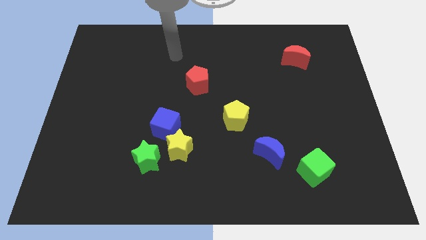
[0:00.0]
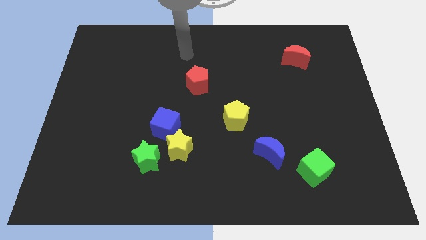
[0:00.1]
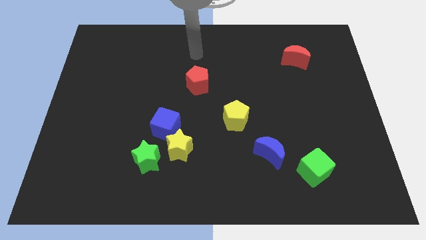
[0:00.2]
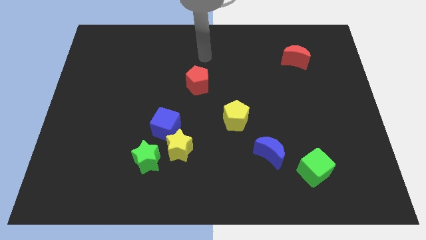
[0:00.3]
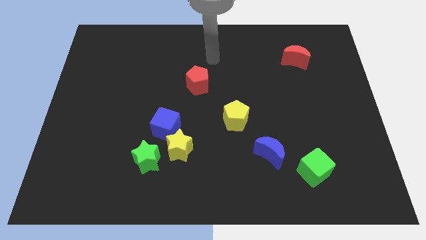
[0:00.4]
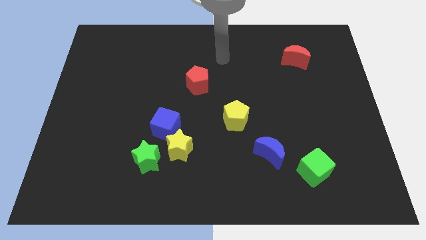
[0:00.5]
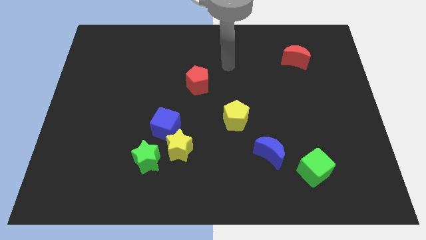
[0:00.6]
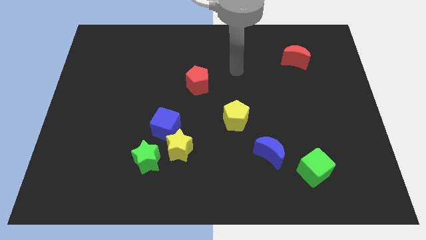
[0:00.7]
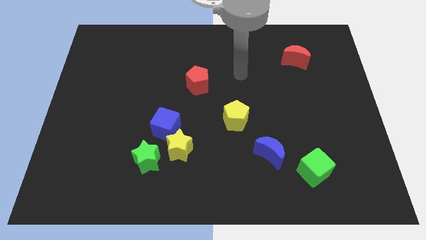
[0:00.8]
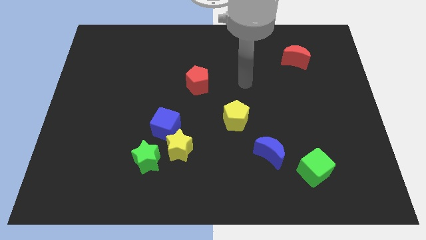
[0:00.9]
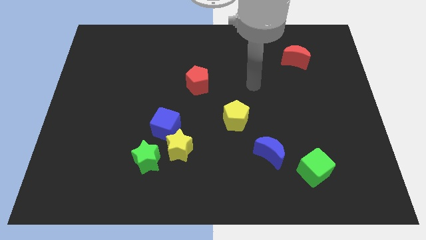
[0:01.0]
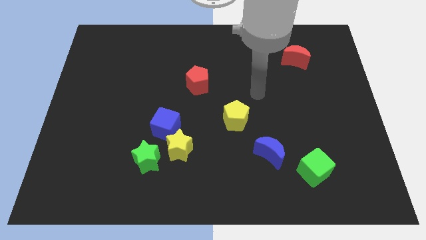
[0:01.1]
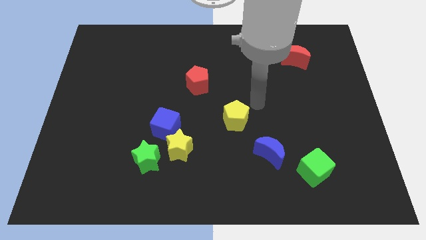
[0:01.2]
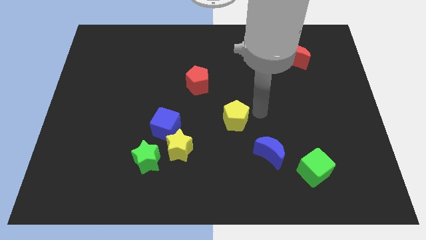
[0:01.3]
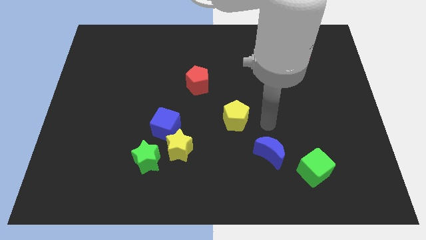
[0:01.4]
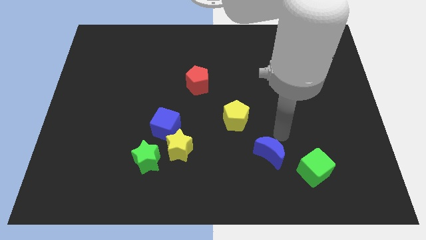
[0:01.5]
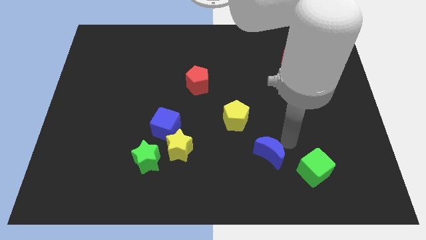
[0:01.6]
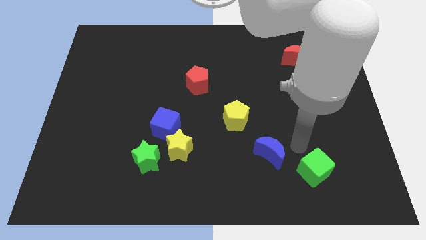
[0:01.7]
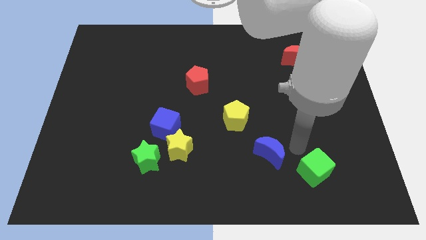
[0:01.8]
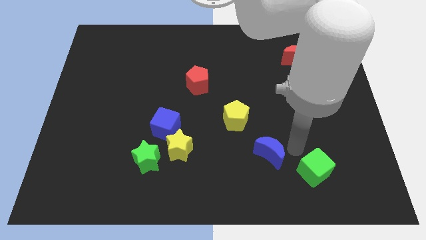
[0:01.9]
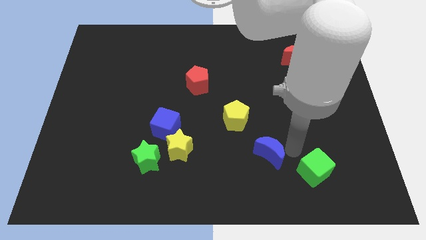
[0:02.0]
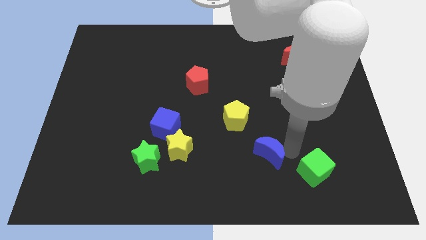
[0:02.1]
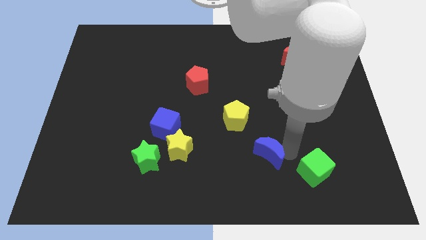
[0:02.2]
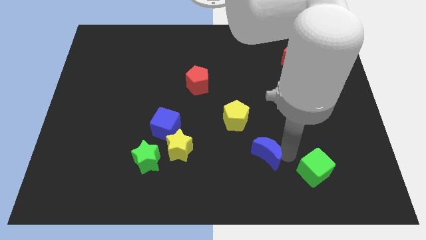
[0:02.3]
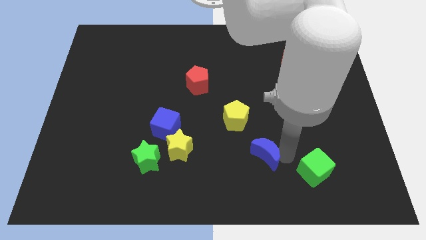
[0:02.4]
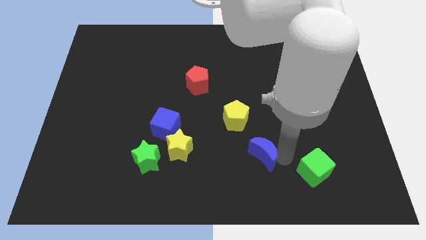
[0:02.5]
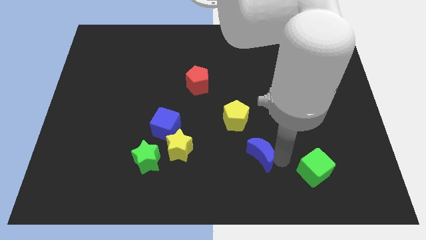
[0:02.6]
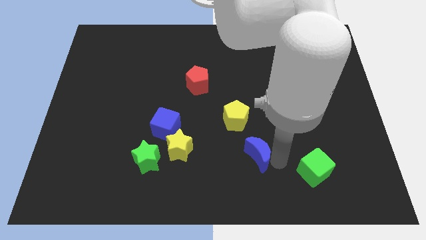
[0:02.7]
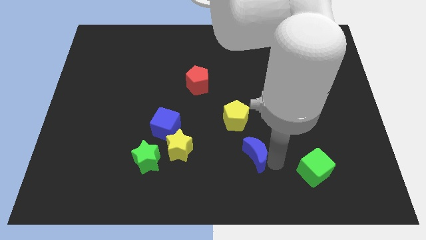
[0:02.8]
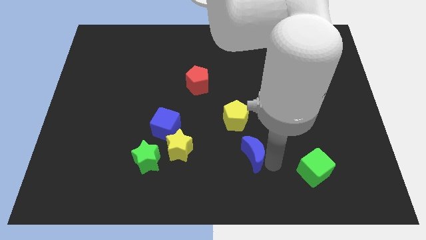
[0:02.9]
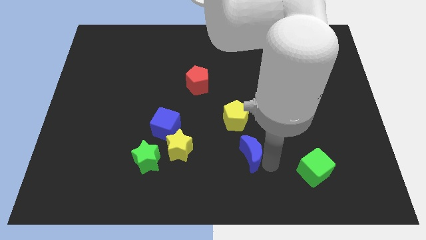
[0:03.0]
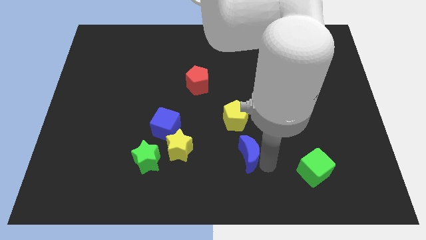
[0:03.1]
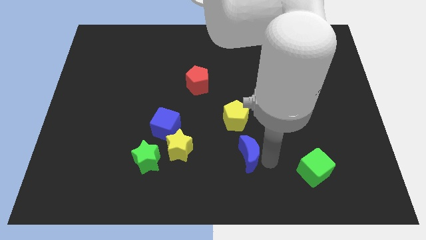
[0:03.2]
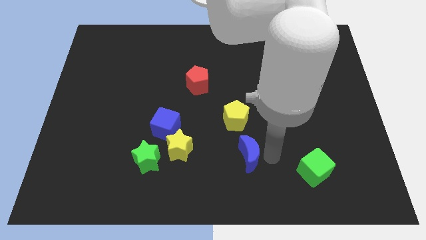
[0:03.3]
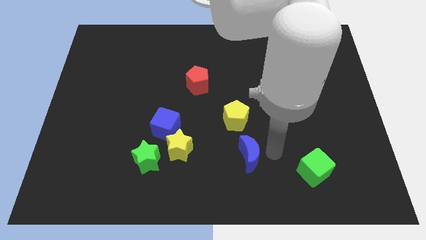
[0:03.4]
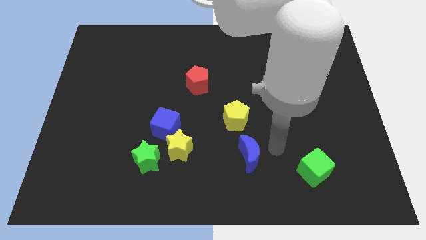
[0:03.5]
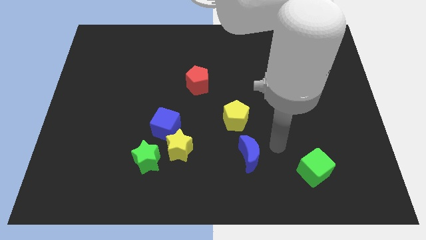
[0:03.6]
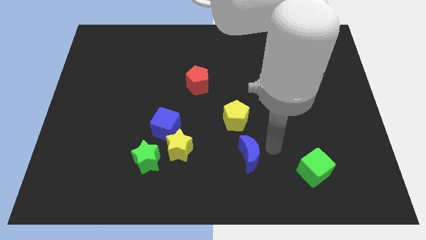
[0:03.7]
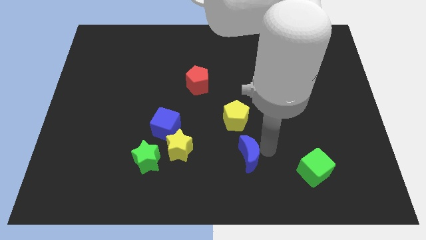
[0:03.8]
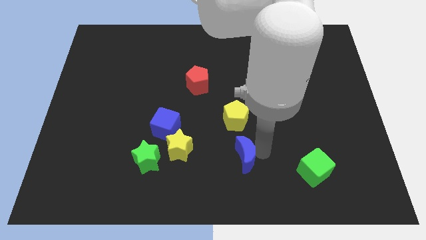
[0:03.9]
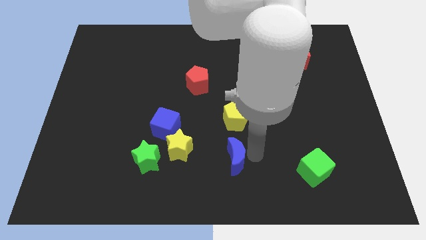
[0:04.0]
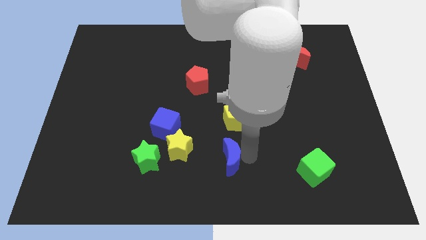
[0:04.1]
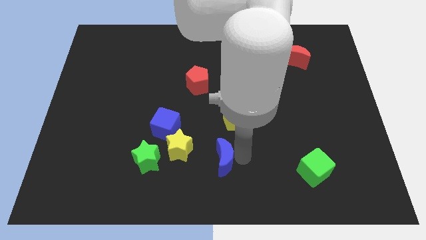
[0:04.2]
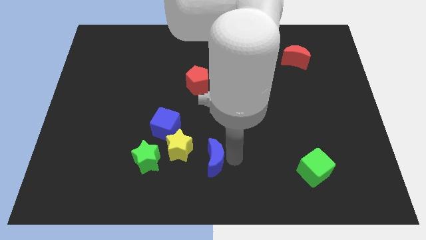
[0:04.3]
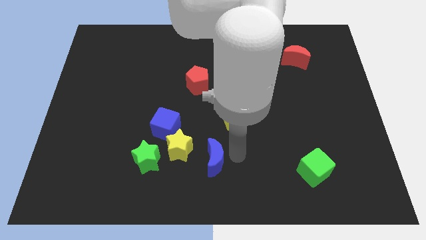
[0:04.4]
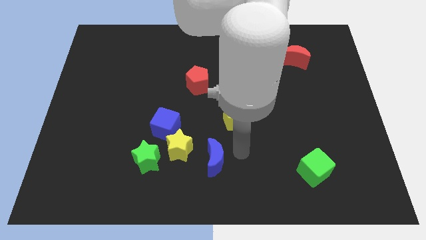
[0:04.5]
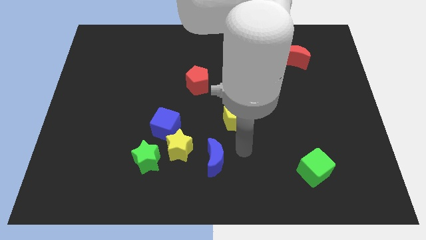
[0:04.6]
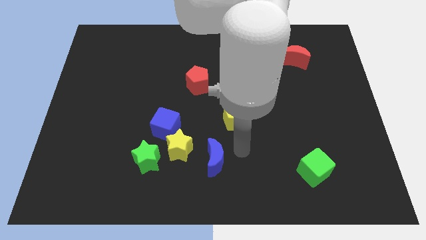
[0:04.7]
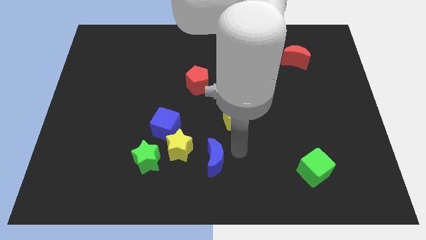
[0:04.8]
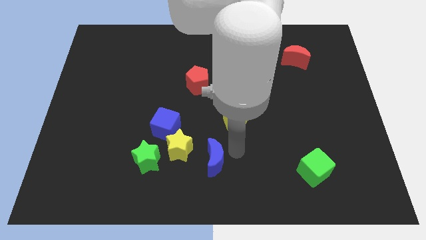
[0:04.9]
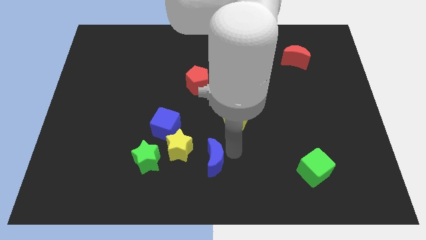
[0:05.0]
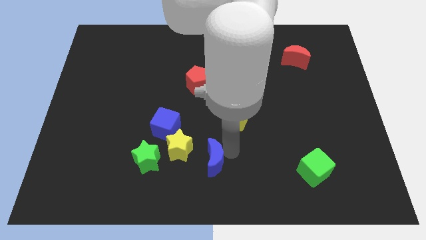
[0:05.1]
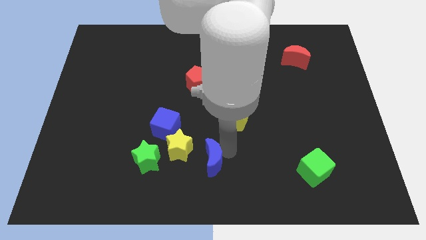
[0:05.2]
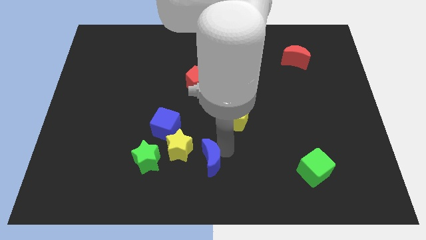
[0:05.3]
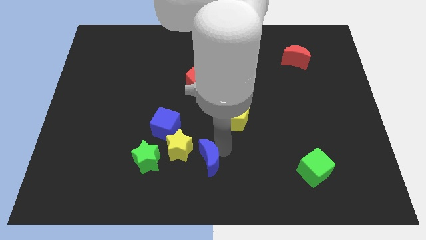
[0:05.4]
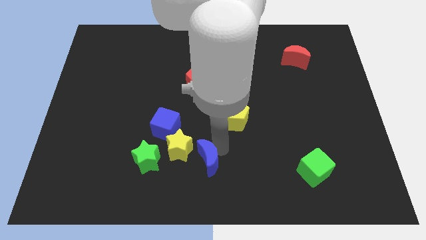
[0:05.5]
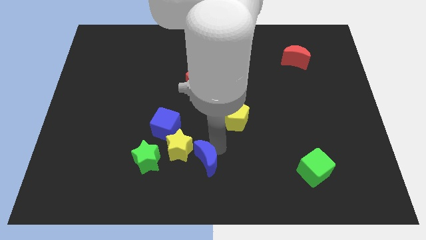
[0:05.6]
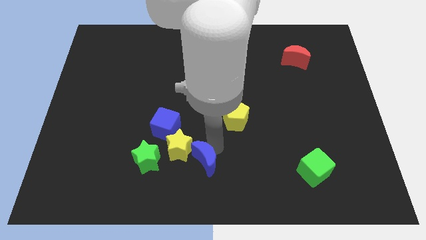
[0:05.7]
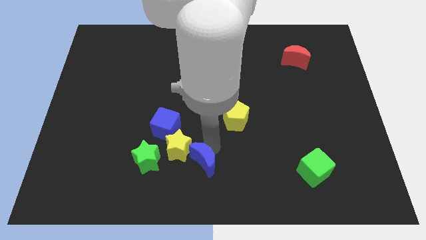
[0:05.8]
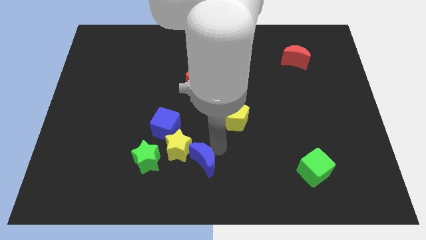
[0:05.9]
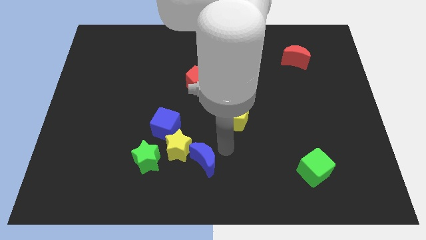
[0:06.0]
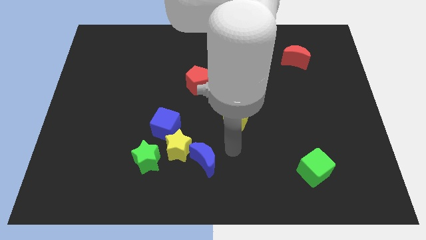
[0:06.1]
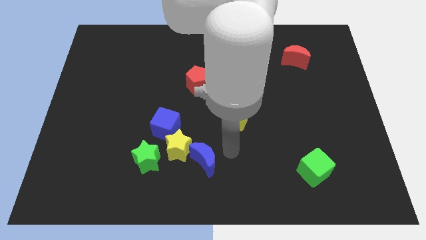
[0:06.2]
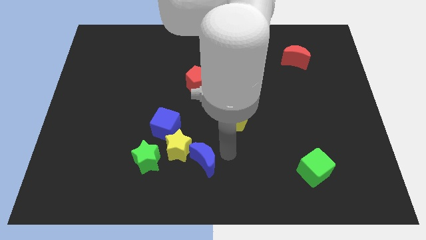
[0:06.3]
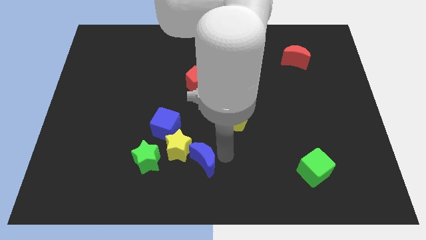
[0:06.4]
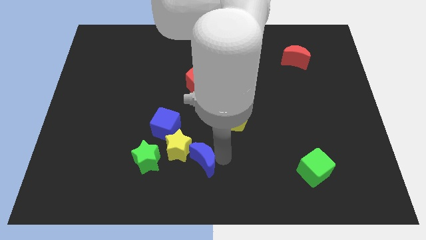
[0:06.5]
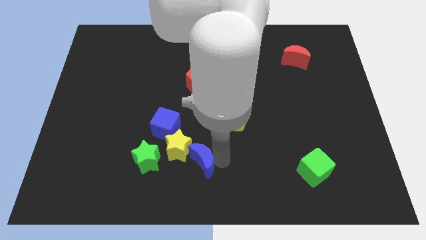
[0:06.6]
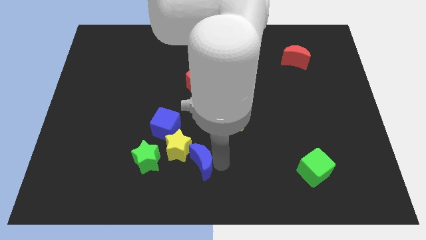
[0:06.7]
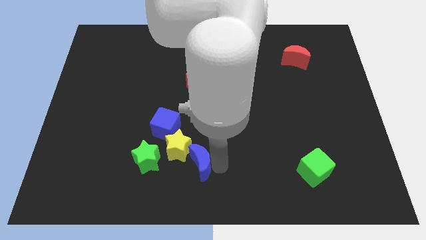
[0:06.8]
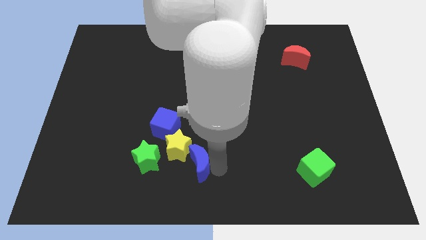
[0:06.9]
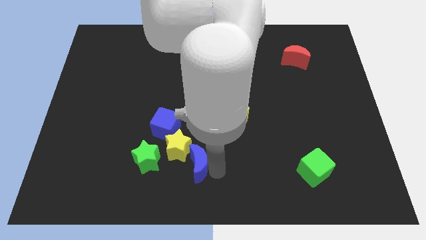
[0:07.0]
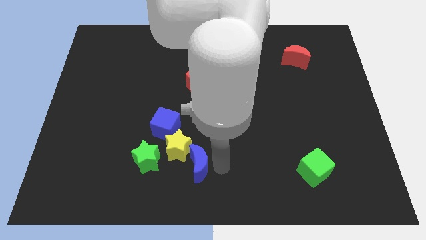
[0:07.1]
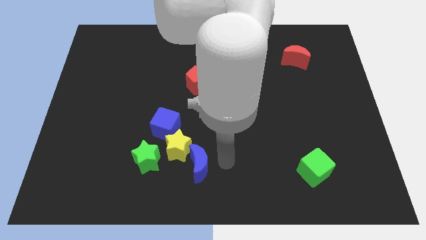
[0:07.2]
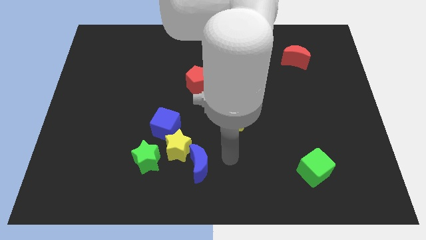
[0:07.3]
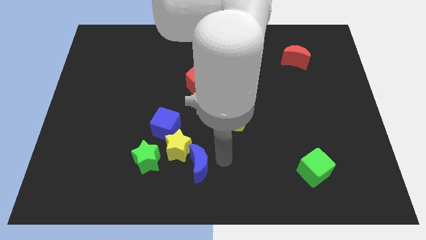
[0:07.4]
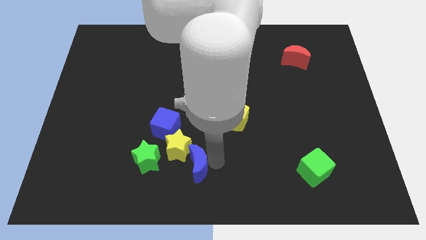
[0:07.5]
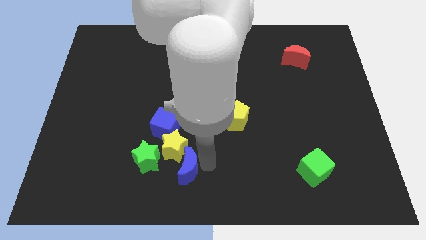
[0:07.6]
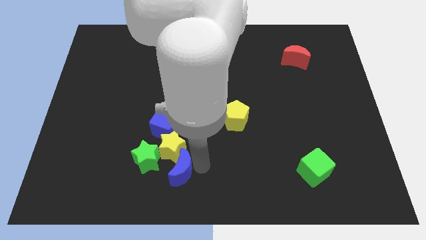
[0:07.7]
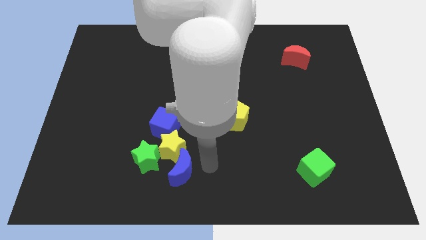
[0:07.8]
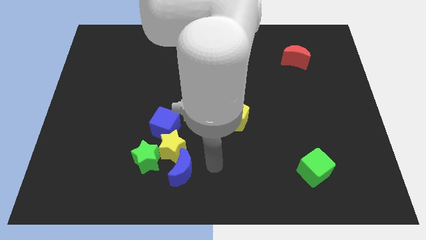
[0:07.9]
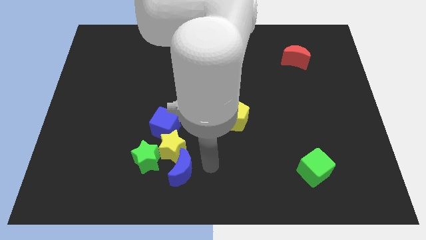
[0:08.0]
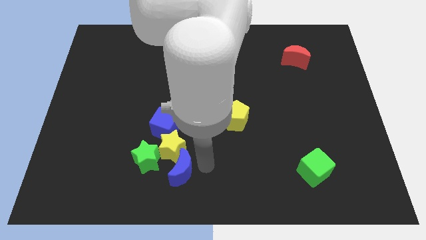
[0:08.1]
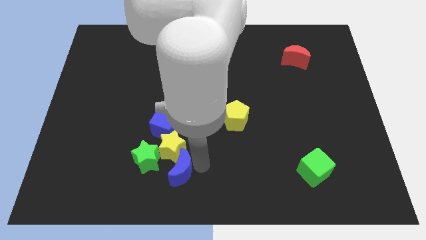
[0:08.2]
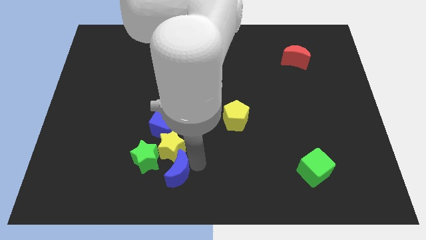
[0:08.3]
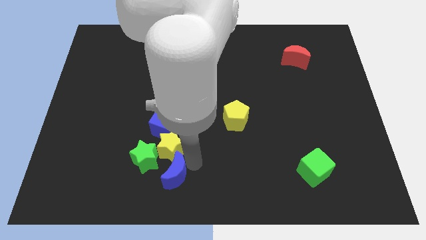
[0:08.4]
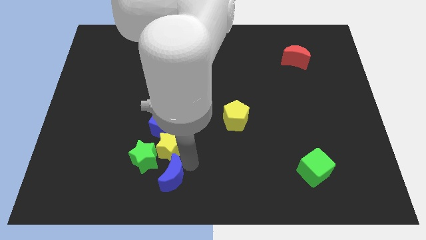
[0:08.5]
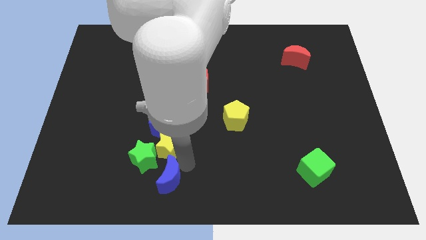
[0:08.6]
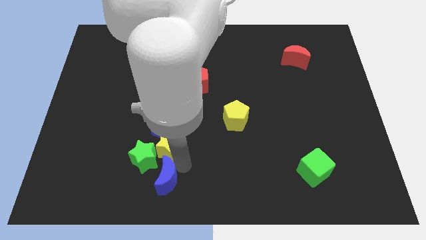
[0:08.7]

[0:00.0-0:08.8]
push the blue moon left
